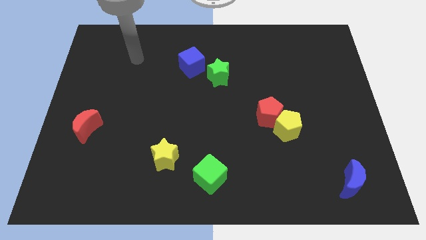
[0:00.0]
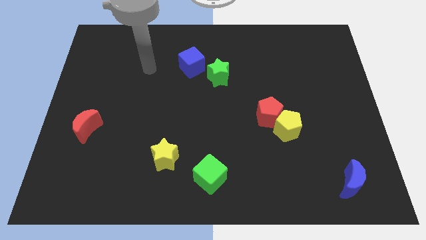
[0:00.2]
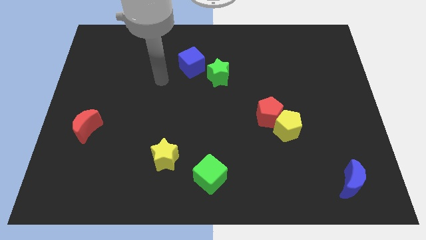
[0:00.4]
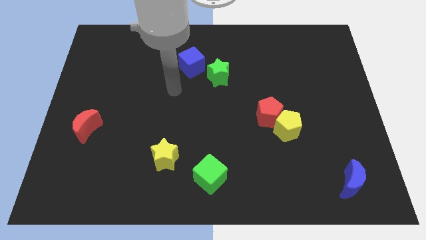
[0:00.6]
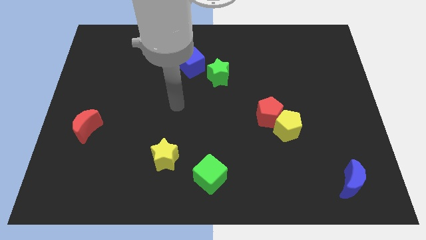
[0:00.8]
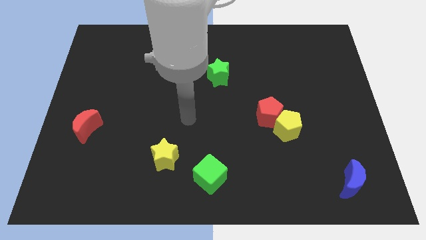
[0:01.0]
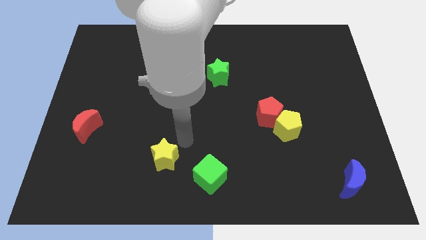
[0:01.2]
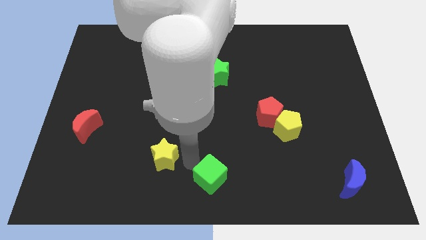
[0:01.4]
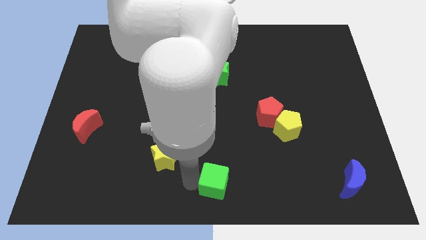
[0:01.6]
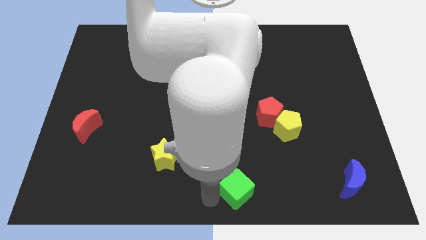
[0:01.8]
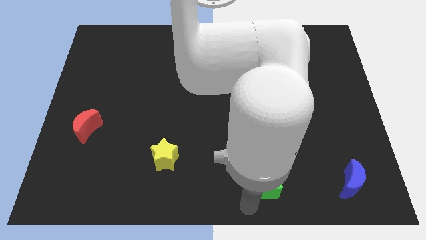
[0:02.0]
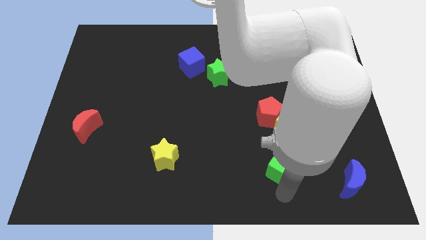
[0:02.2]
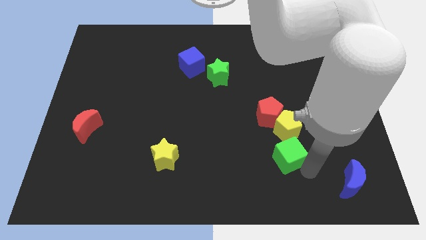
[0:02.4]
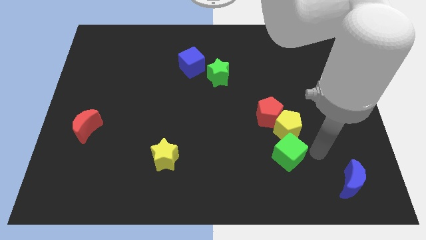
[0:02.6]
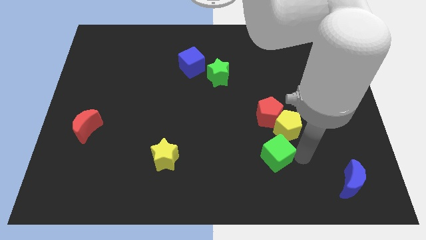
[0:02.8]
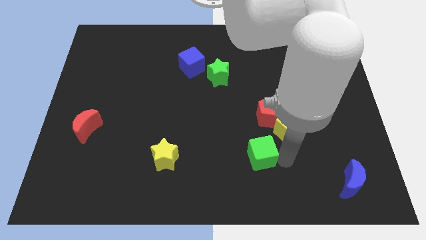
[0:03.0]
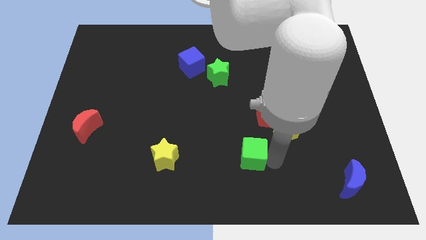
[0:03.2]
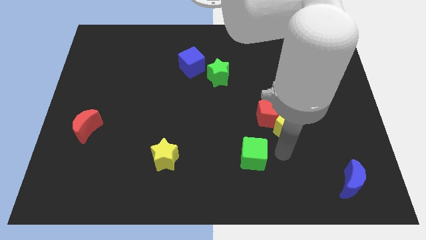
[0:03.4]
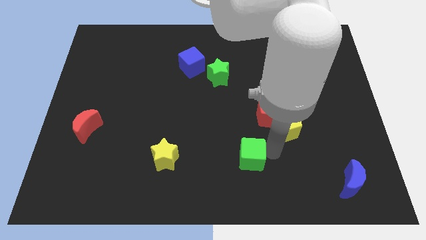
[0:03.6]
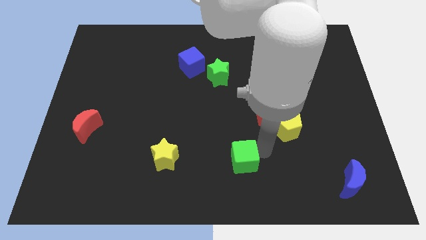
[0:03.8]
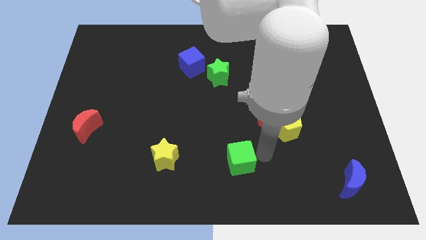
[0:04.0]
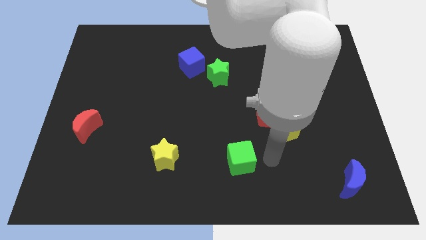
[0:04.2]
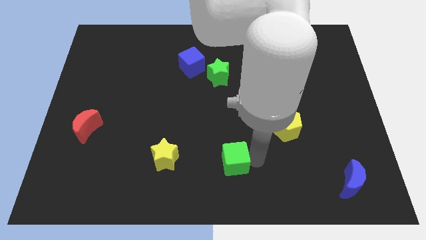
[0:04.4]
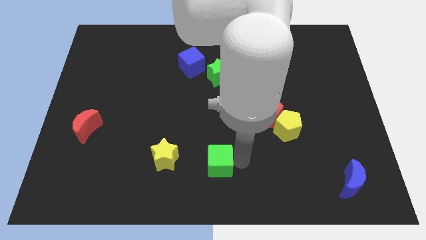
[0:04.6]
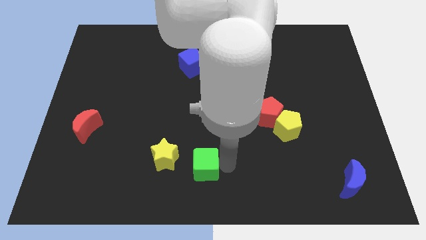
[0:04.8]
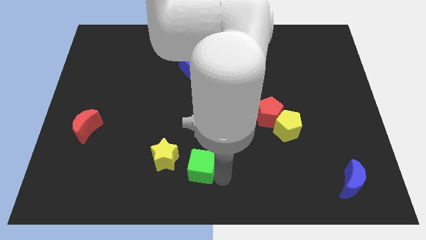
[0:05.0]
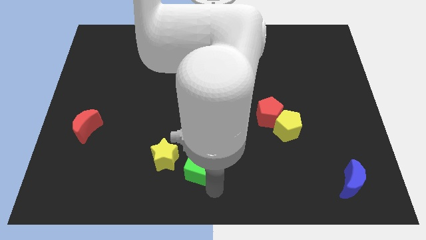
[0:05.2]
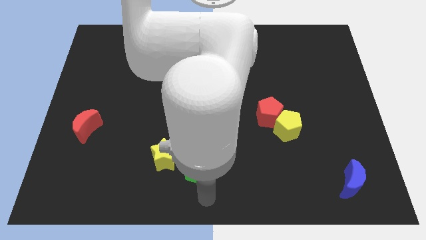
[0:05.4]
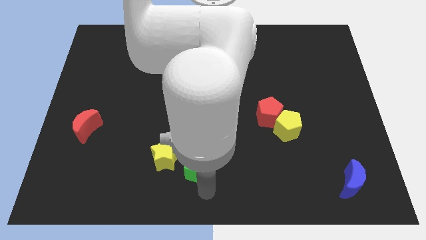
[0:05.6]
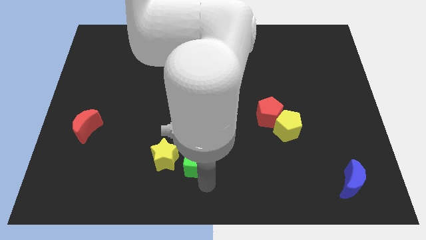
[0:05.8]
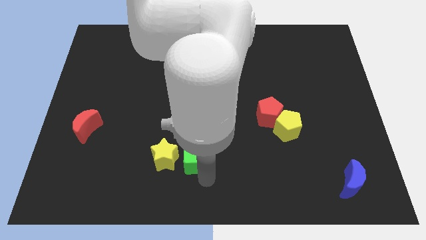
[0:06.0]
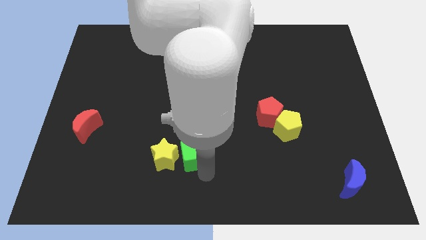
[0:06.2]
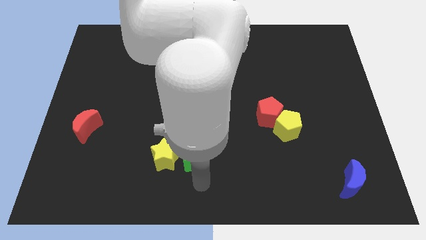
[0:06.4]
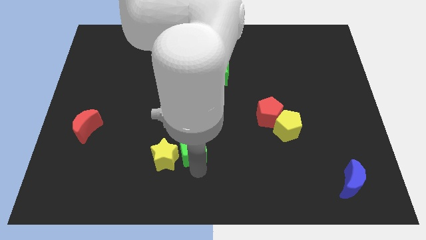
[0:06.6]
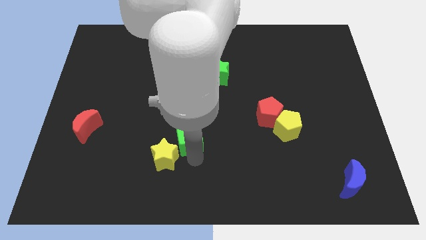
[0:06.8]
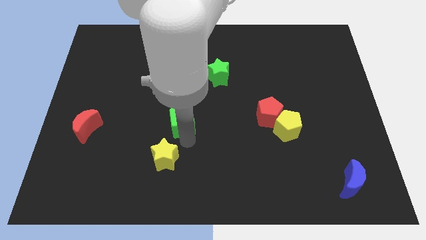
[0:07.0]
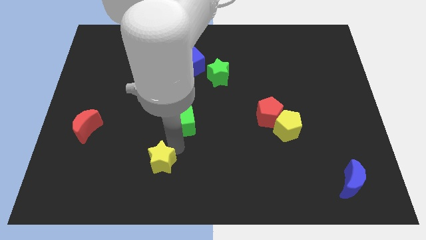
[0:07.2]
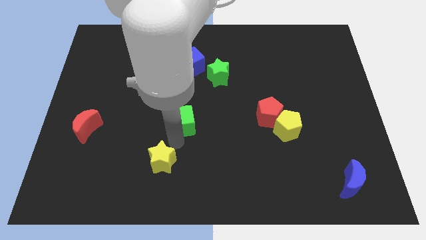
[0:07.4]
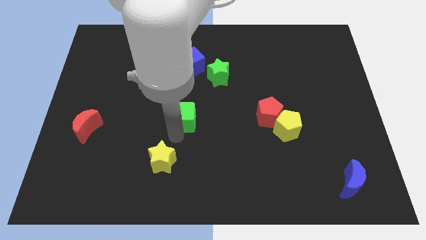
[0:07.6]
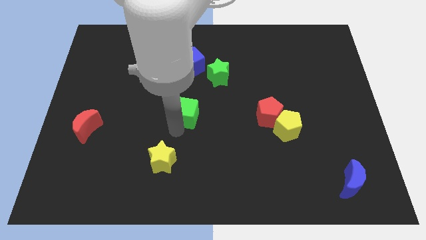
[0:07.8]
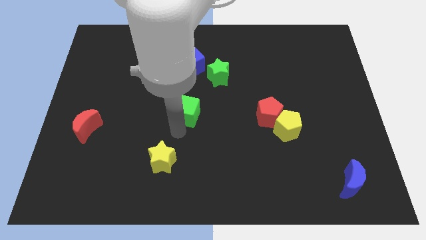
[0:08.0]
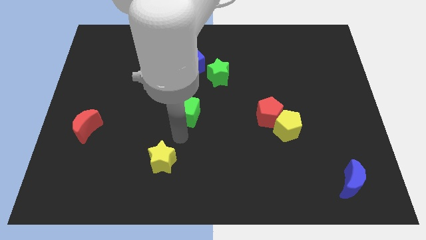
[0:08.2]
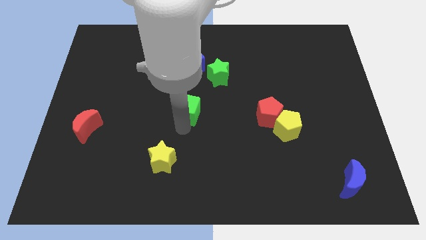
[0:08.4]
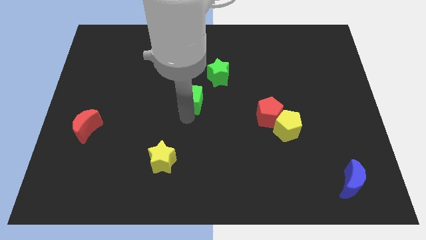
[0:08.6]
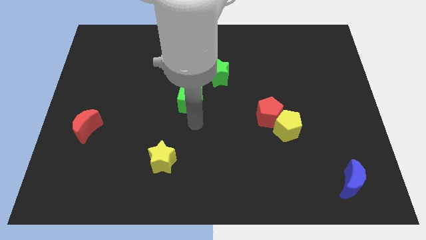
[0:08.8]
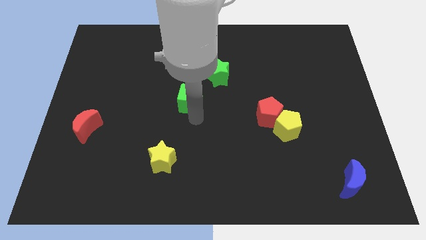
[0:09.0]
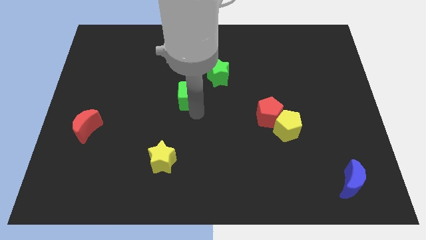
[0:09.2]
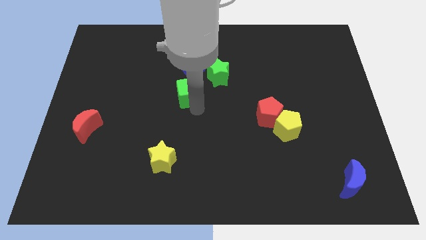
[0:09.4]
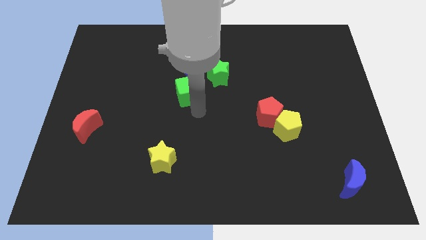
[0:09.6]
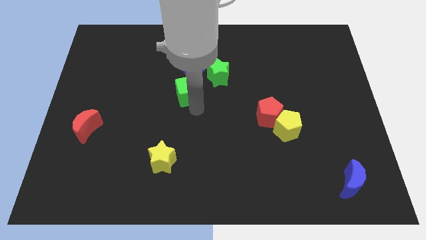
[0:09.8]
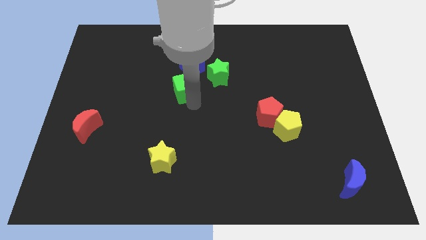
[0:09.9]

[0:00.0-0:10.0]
put the green cube just left of the green star

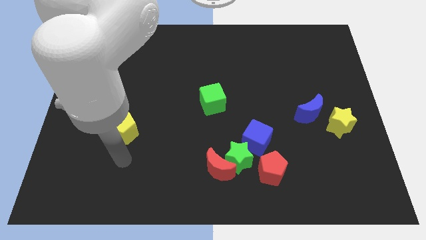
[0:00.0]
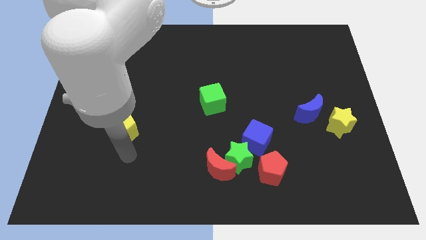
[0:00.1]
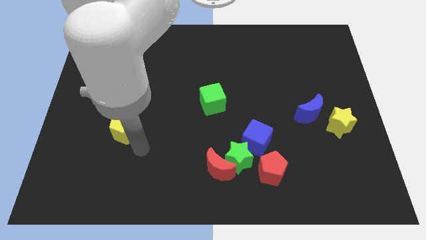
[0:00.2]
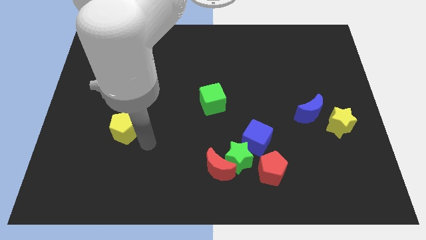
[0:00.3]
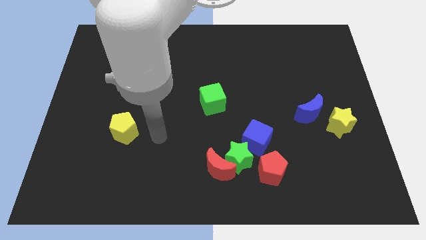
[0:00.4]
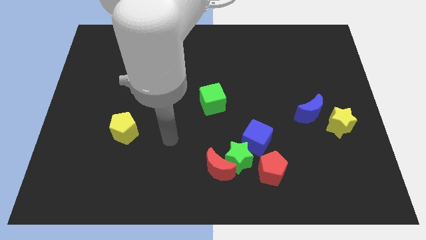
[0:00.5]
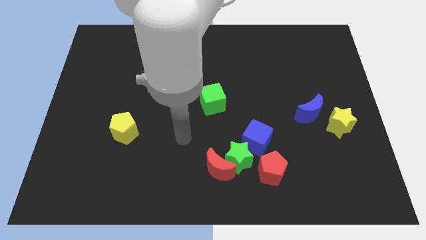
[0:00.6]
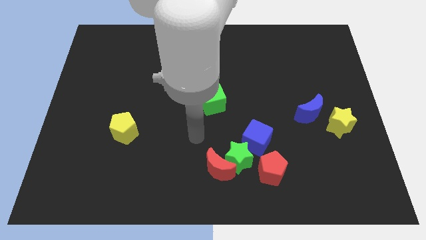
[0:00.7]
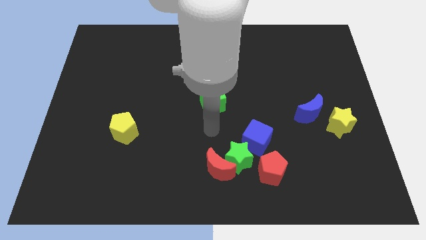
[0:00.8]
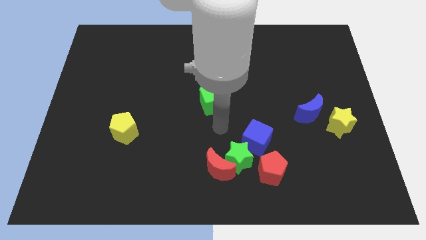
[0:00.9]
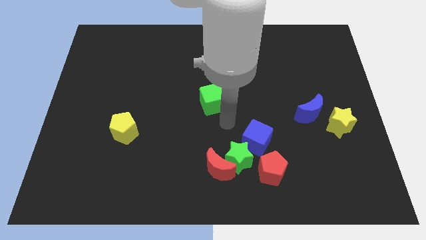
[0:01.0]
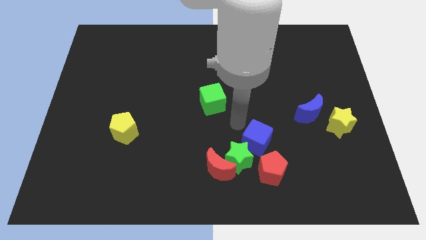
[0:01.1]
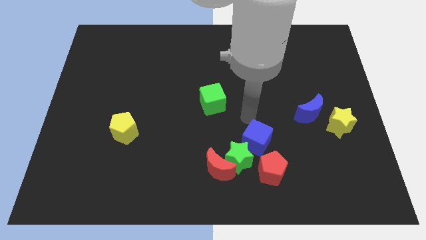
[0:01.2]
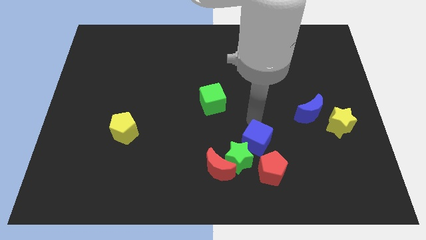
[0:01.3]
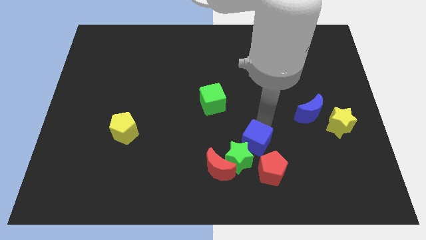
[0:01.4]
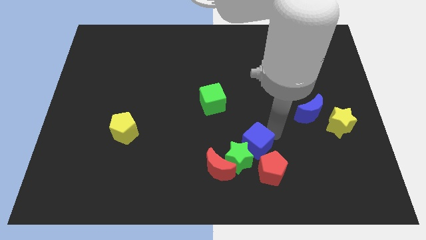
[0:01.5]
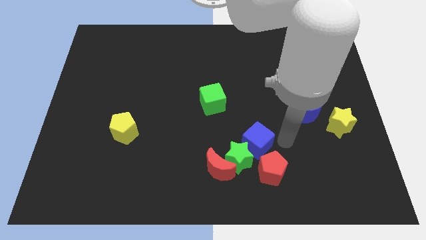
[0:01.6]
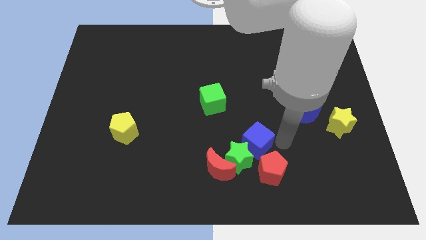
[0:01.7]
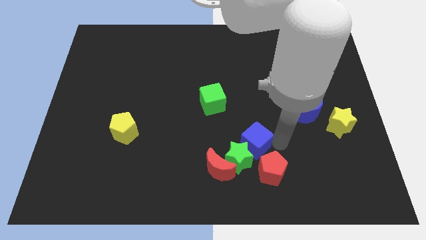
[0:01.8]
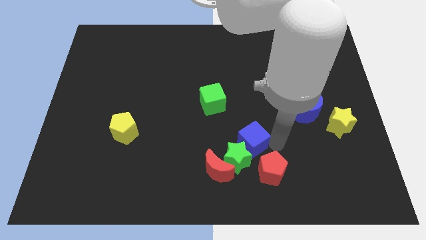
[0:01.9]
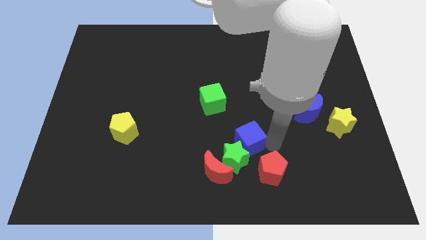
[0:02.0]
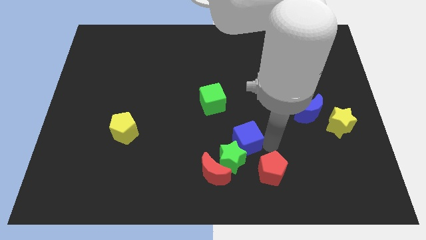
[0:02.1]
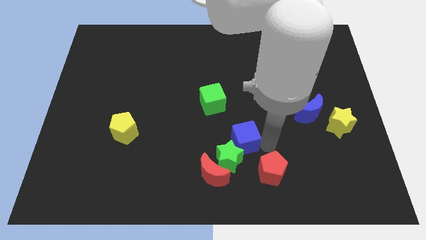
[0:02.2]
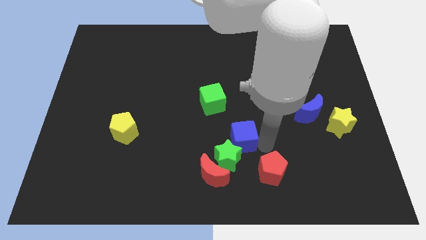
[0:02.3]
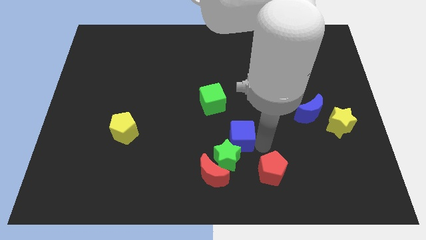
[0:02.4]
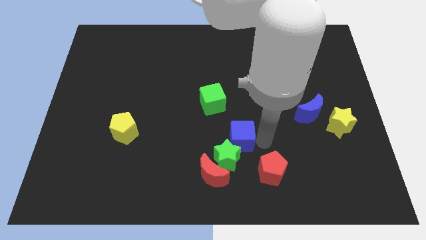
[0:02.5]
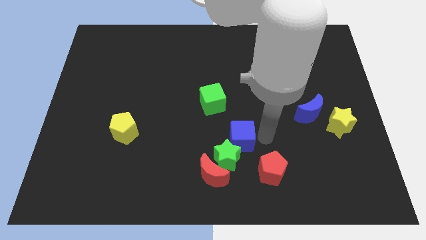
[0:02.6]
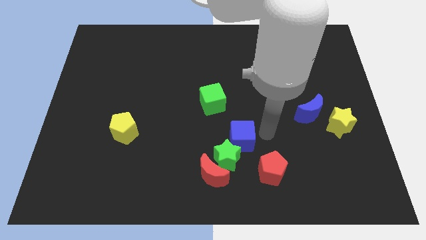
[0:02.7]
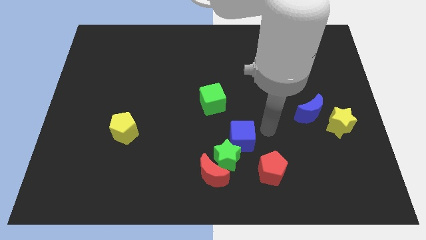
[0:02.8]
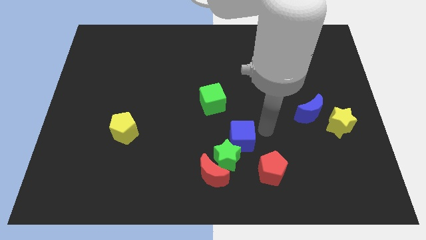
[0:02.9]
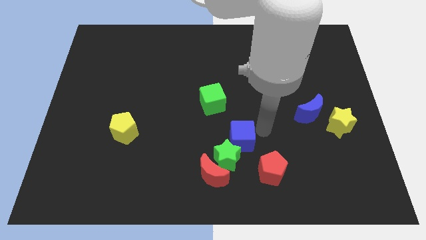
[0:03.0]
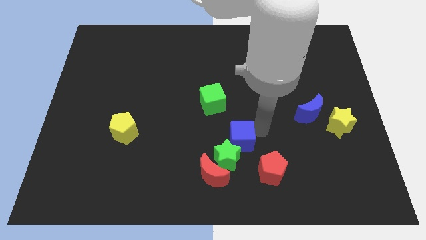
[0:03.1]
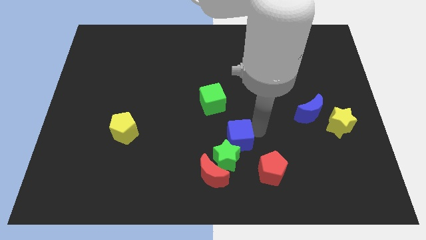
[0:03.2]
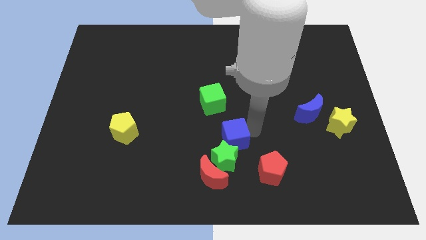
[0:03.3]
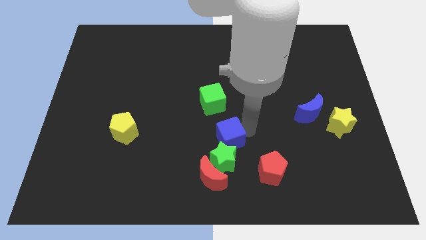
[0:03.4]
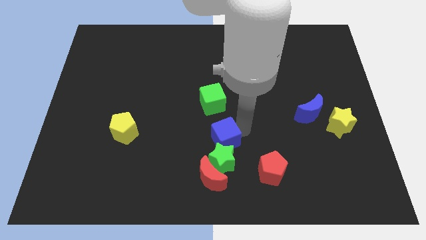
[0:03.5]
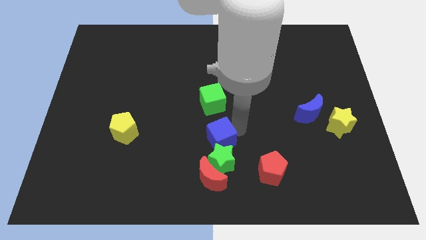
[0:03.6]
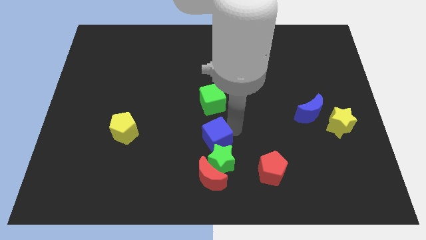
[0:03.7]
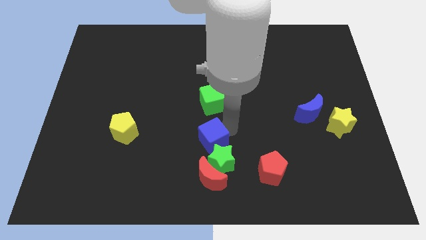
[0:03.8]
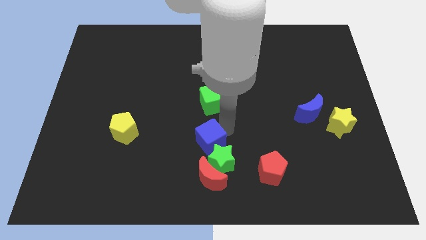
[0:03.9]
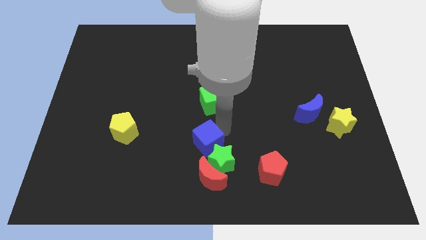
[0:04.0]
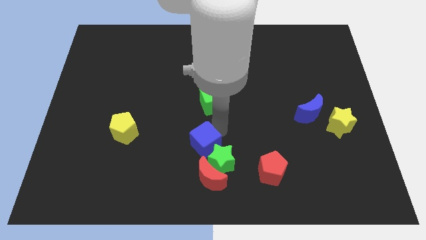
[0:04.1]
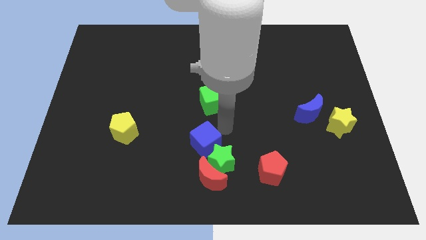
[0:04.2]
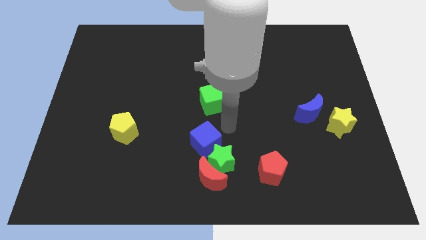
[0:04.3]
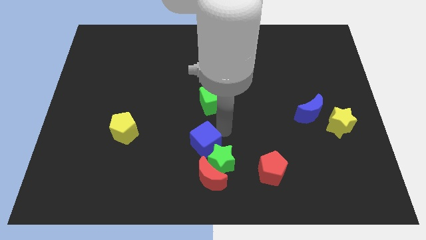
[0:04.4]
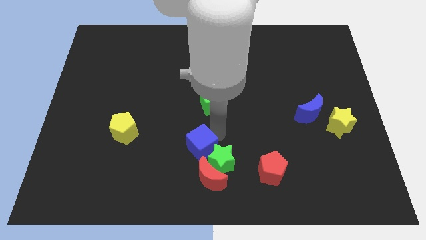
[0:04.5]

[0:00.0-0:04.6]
put the blue cube to the top left of the red moon
